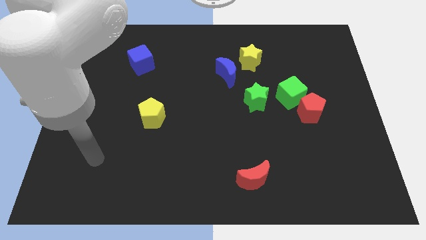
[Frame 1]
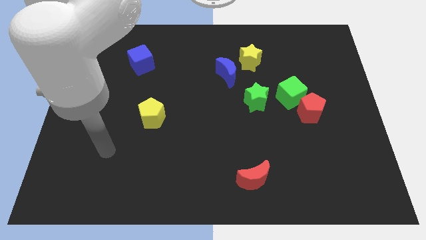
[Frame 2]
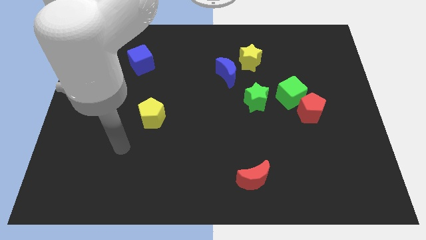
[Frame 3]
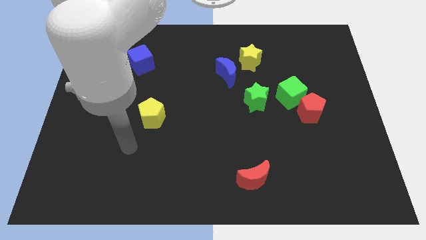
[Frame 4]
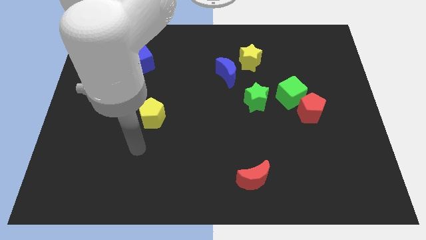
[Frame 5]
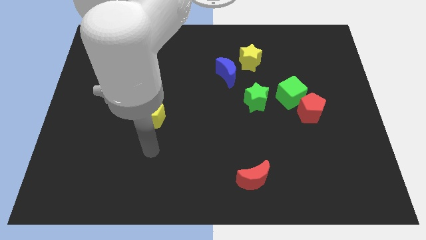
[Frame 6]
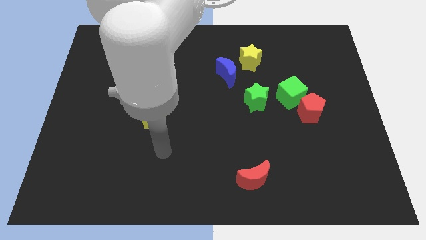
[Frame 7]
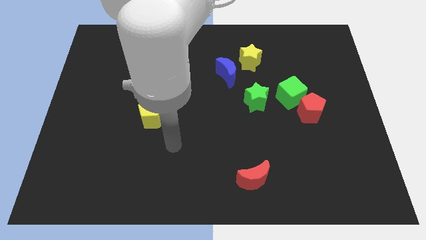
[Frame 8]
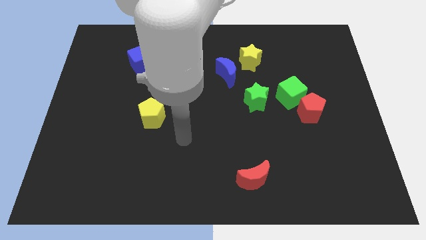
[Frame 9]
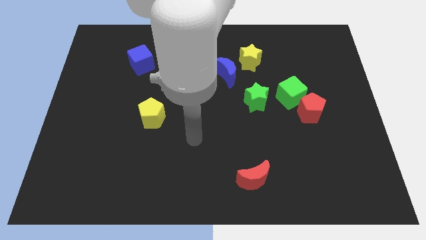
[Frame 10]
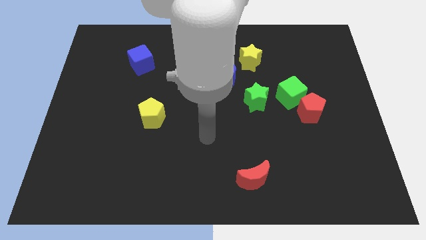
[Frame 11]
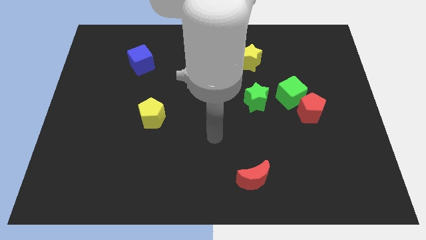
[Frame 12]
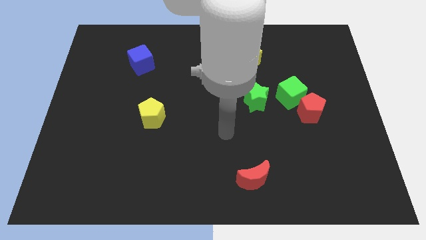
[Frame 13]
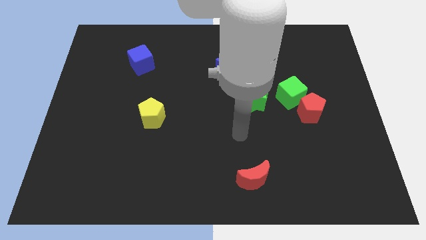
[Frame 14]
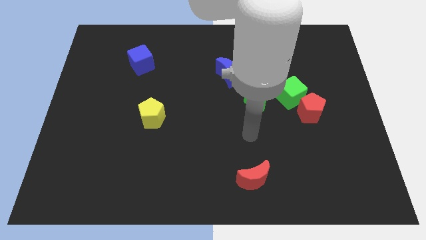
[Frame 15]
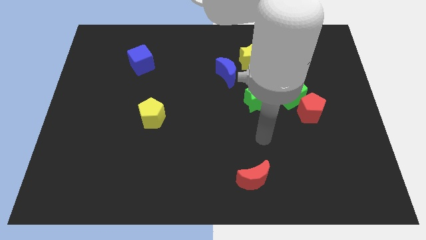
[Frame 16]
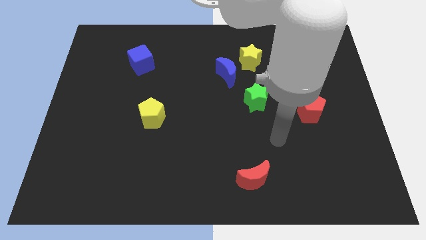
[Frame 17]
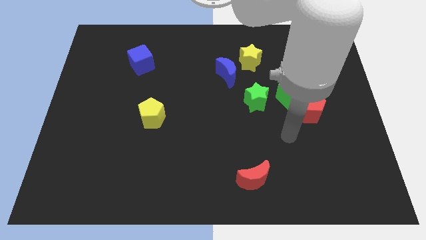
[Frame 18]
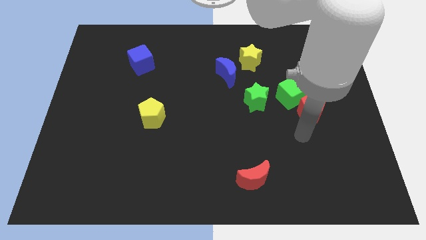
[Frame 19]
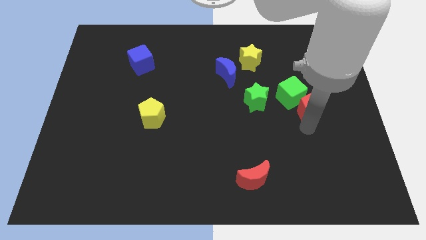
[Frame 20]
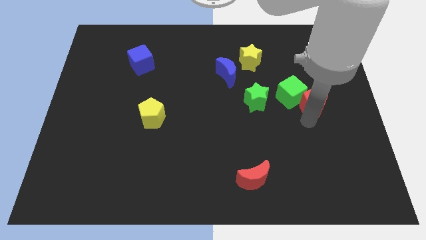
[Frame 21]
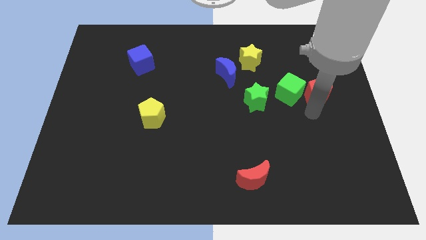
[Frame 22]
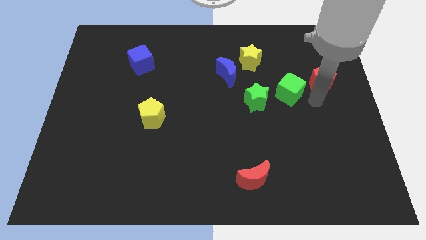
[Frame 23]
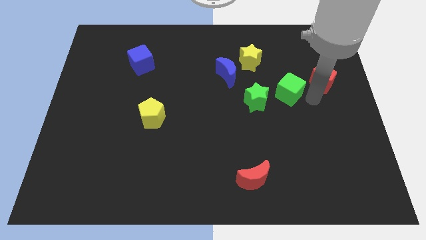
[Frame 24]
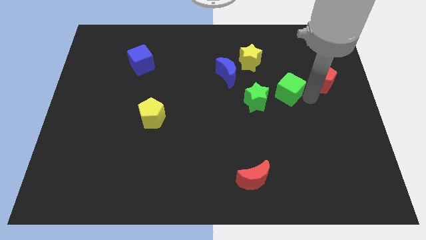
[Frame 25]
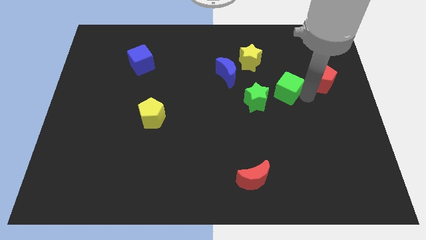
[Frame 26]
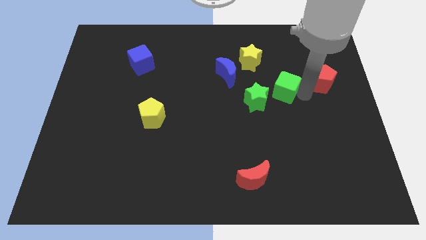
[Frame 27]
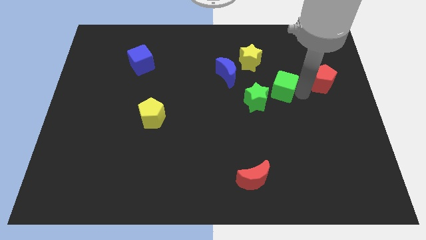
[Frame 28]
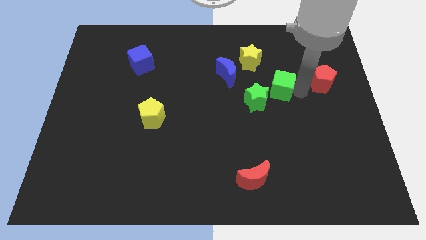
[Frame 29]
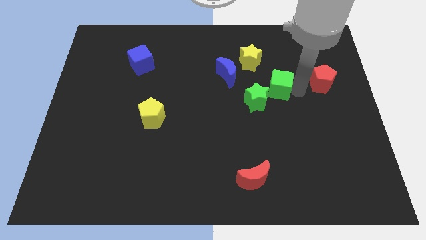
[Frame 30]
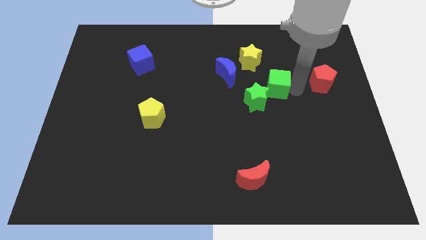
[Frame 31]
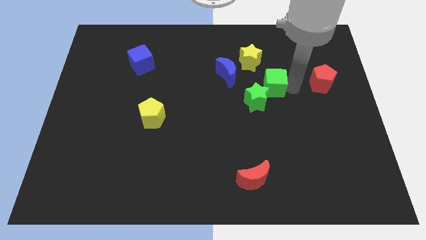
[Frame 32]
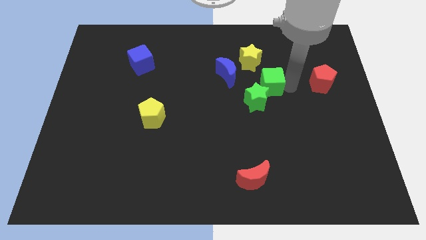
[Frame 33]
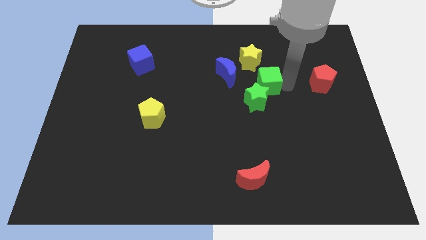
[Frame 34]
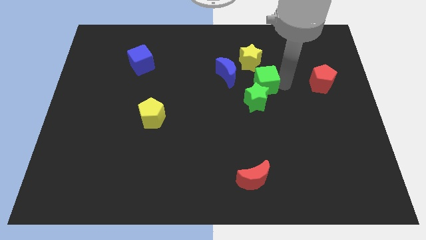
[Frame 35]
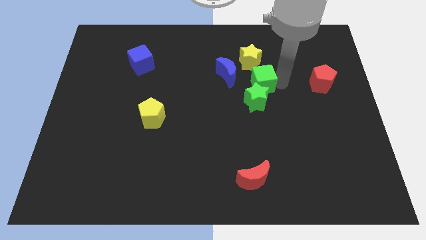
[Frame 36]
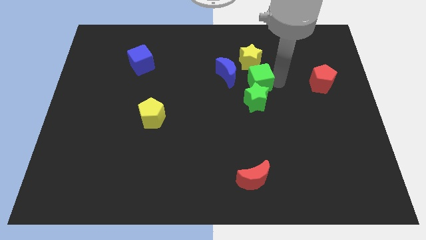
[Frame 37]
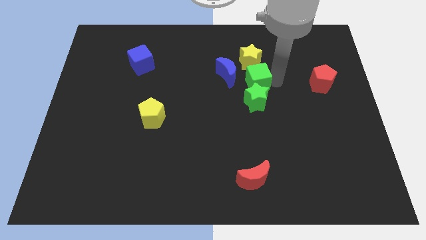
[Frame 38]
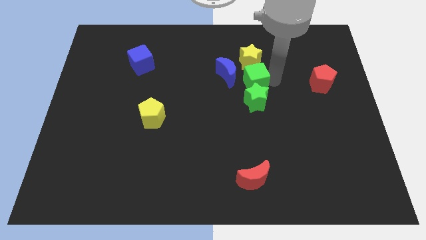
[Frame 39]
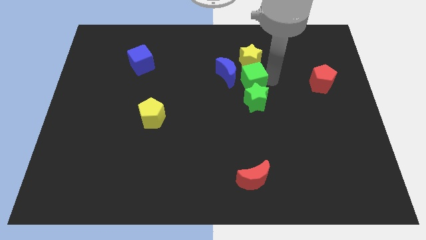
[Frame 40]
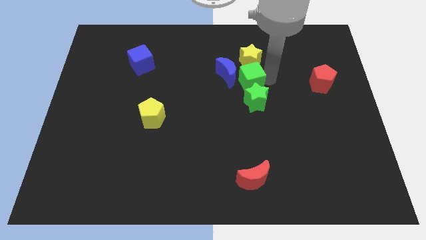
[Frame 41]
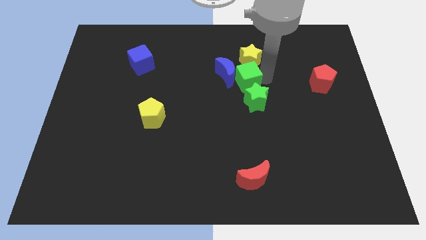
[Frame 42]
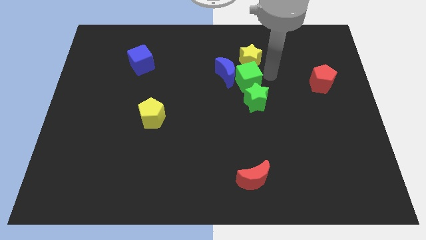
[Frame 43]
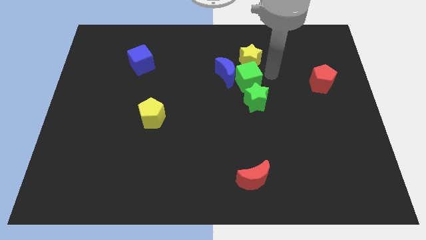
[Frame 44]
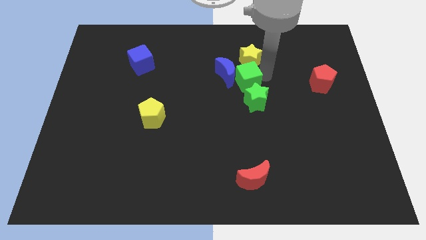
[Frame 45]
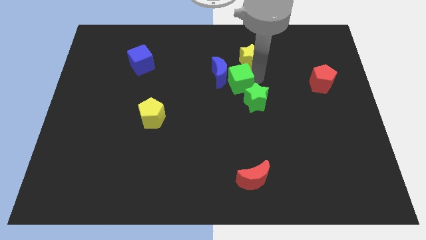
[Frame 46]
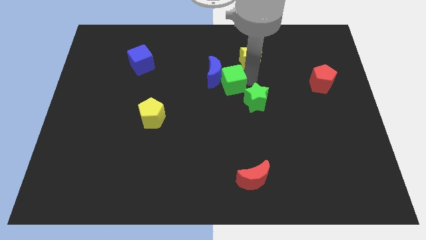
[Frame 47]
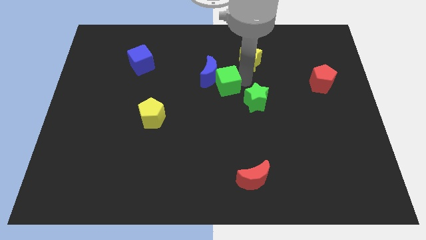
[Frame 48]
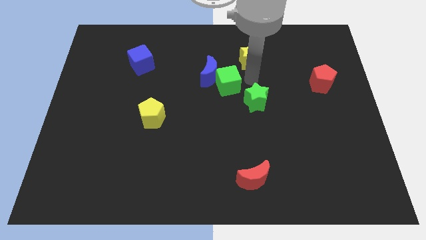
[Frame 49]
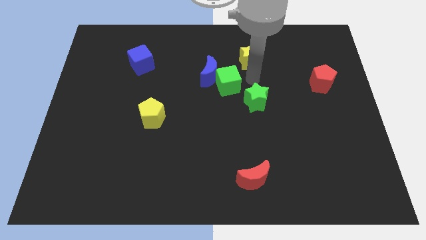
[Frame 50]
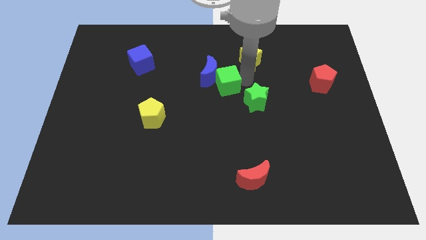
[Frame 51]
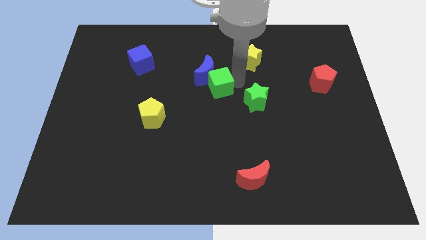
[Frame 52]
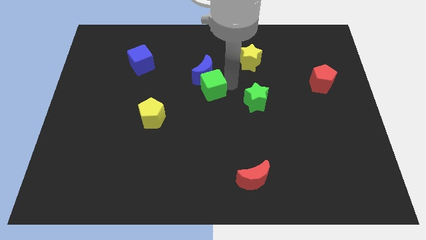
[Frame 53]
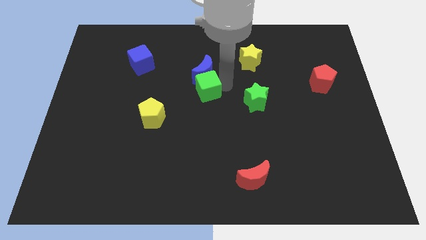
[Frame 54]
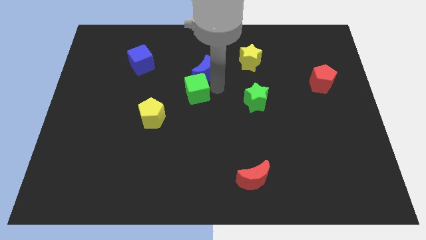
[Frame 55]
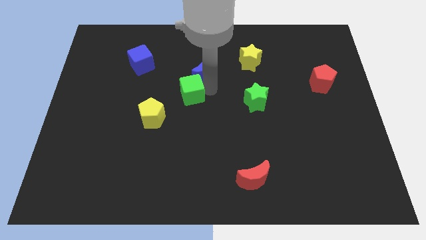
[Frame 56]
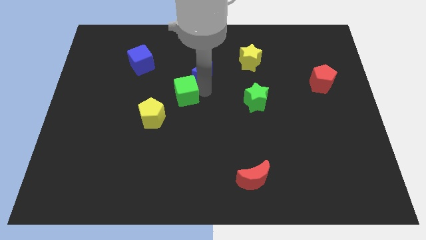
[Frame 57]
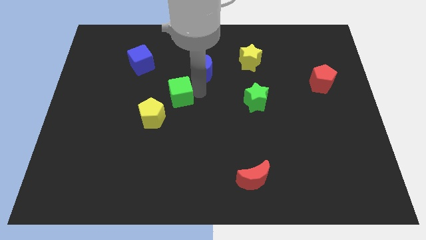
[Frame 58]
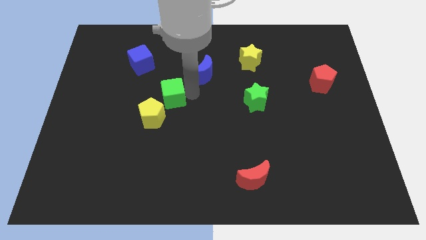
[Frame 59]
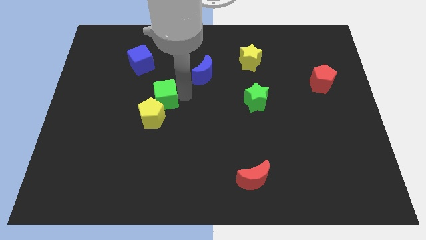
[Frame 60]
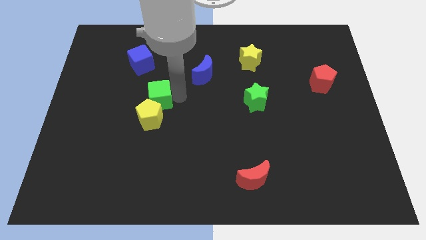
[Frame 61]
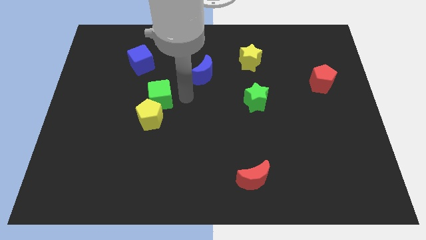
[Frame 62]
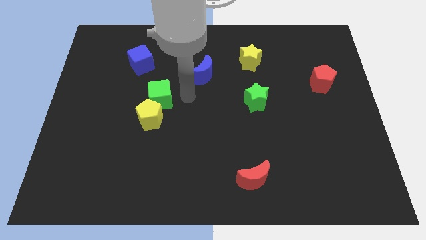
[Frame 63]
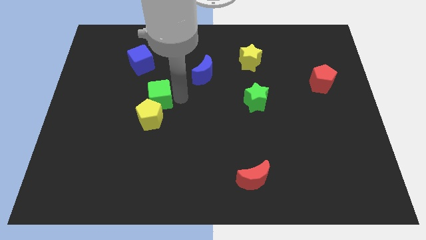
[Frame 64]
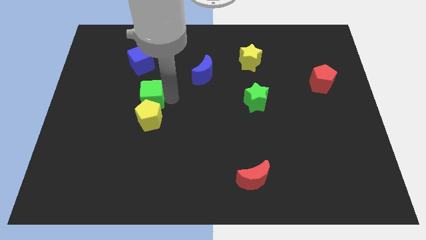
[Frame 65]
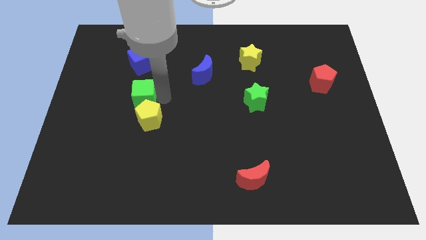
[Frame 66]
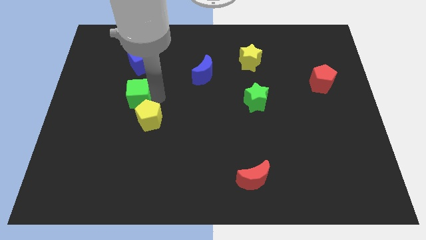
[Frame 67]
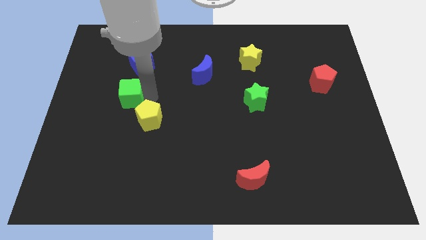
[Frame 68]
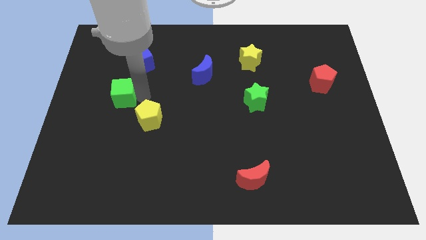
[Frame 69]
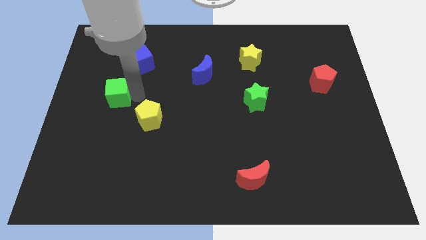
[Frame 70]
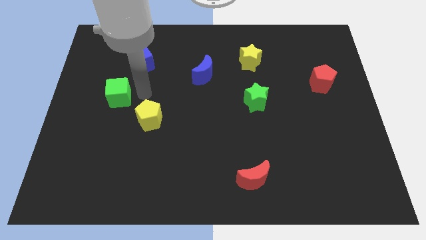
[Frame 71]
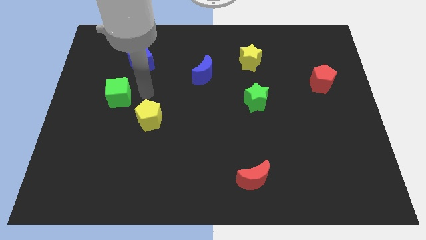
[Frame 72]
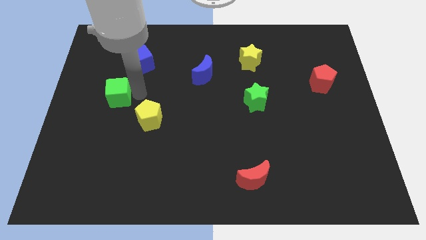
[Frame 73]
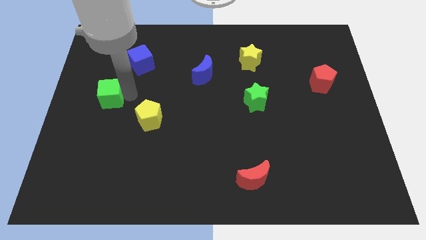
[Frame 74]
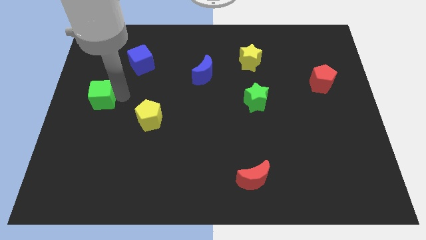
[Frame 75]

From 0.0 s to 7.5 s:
slide the green cube to the left side of the board
